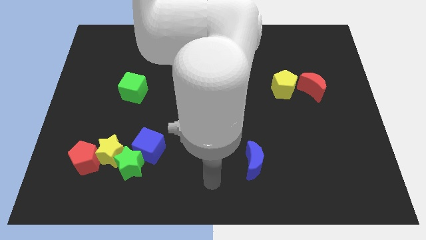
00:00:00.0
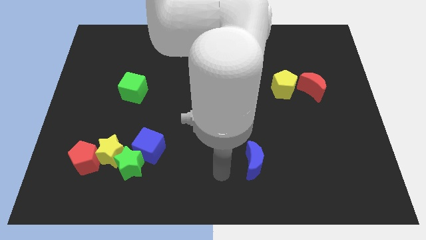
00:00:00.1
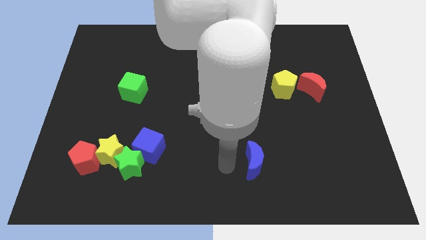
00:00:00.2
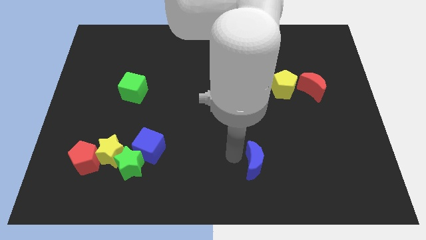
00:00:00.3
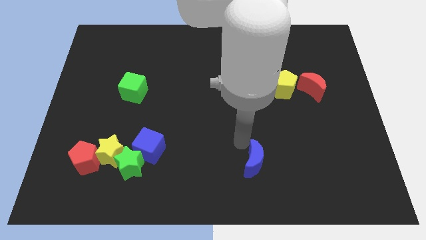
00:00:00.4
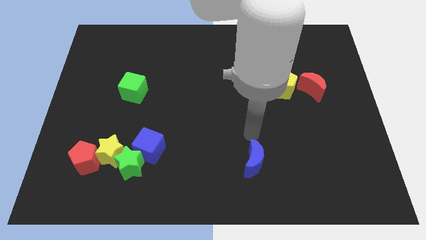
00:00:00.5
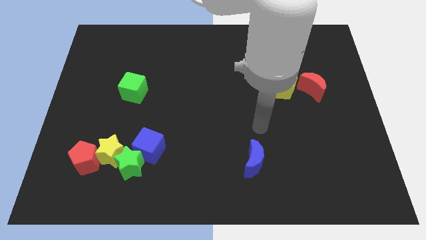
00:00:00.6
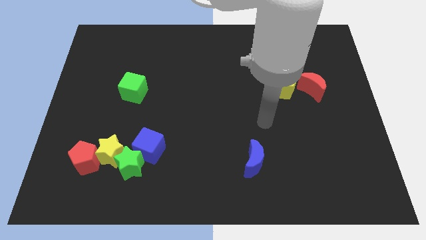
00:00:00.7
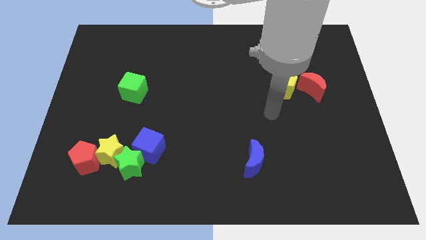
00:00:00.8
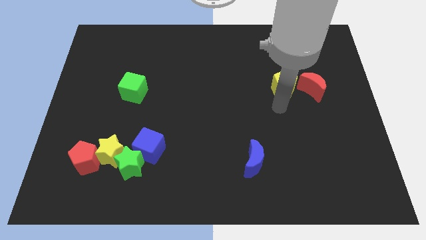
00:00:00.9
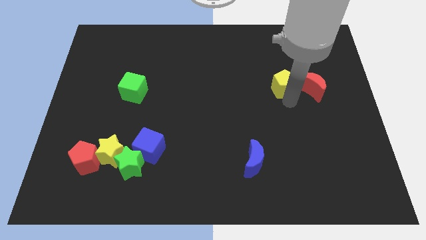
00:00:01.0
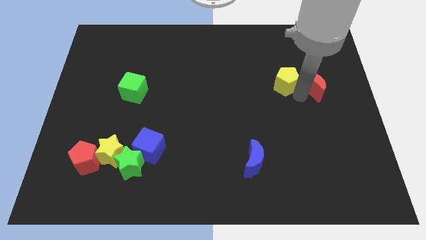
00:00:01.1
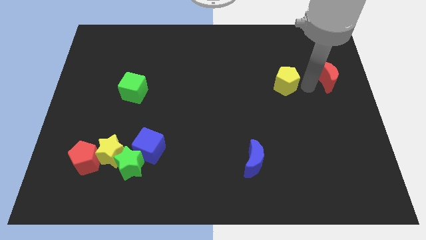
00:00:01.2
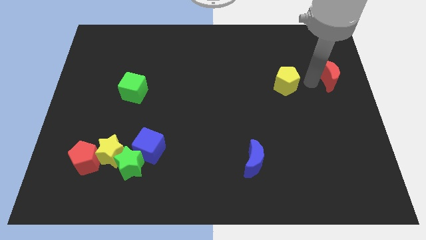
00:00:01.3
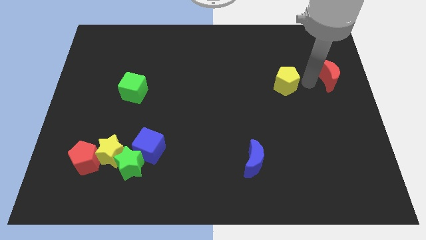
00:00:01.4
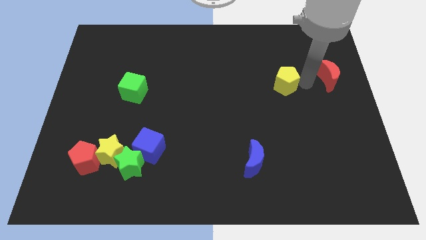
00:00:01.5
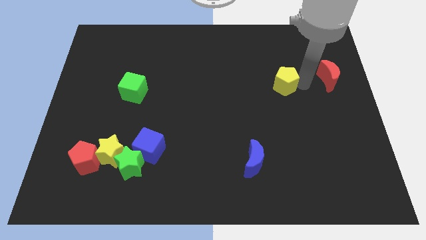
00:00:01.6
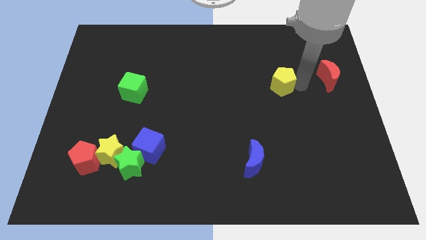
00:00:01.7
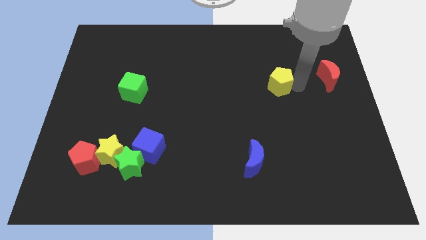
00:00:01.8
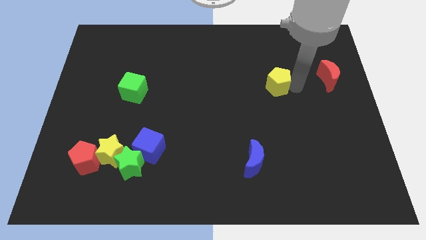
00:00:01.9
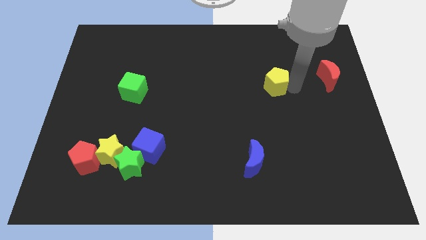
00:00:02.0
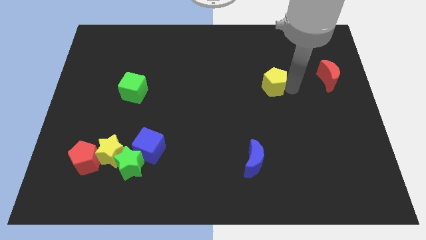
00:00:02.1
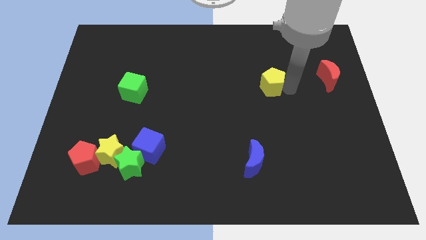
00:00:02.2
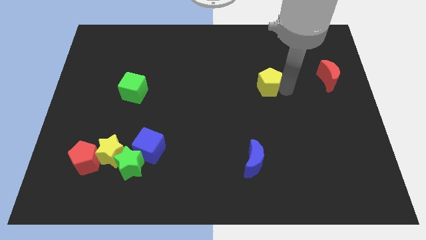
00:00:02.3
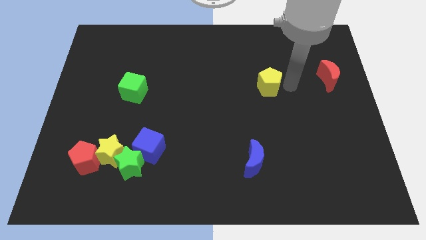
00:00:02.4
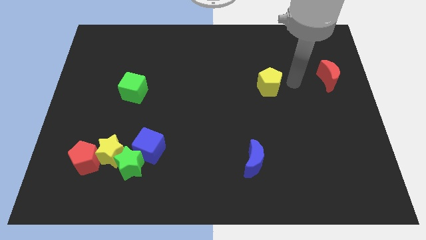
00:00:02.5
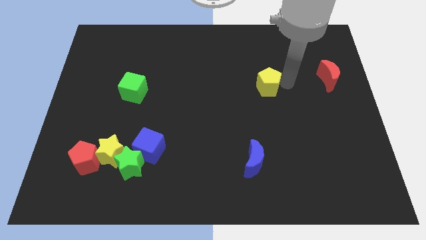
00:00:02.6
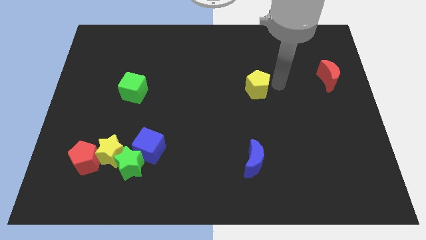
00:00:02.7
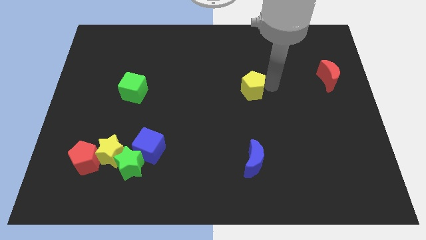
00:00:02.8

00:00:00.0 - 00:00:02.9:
slide the yellow pentagon somewhat to the left

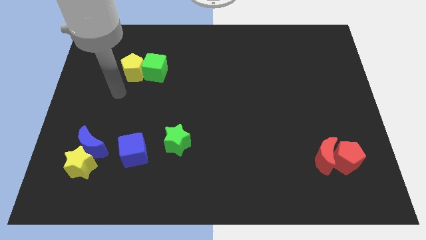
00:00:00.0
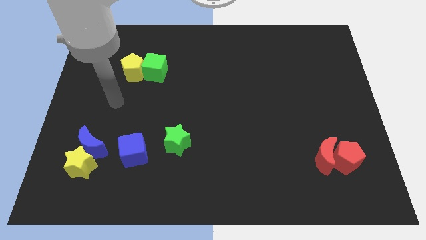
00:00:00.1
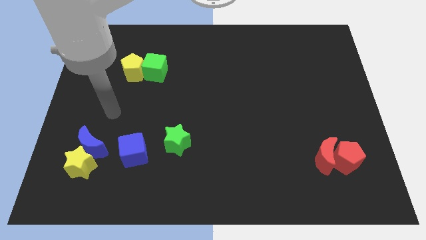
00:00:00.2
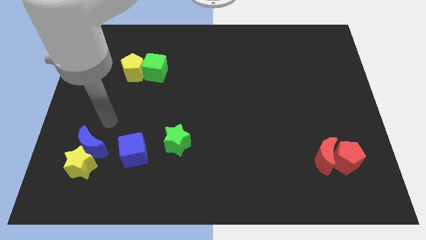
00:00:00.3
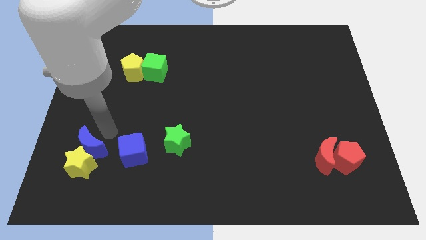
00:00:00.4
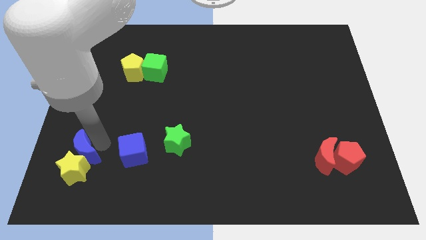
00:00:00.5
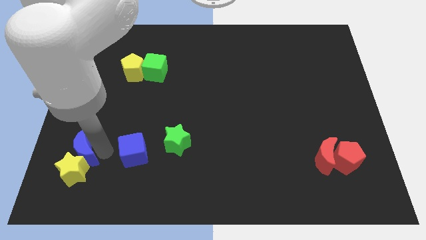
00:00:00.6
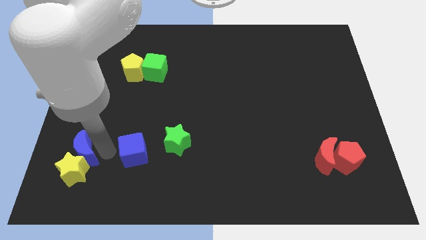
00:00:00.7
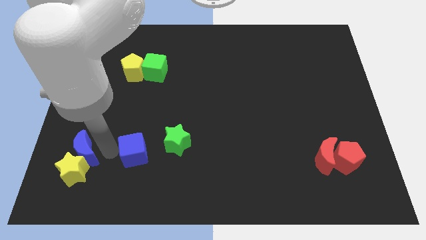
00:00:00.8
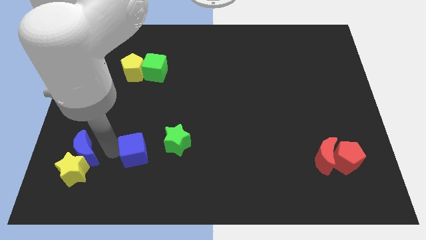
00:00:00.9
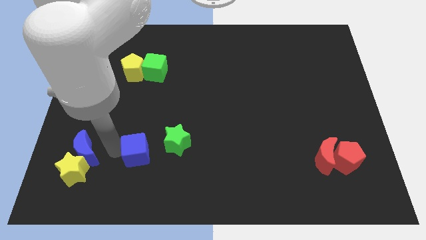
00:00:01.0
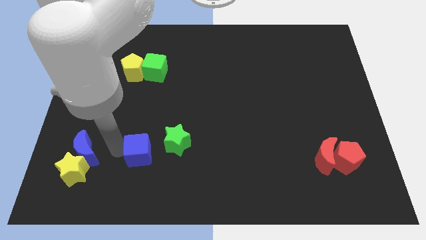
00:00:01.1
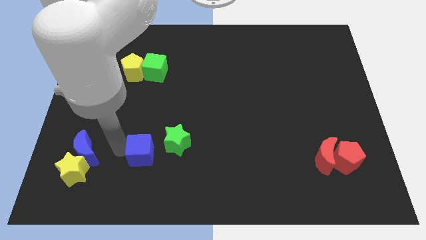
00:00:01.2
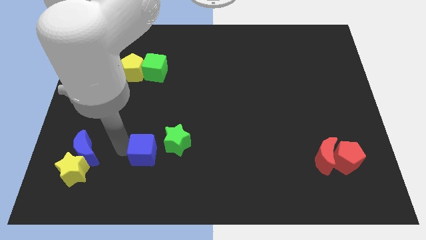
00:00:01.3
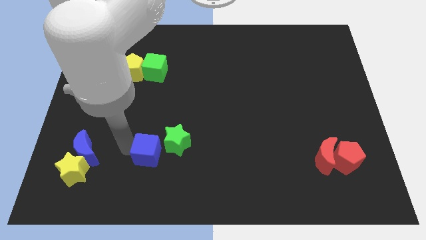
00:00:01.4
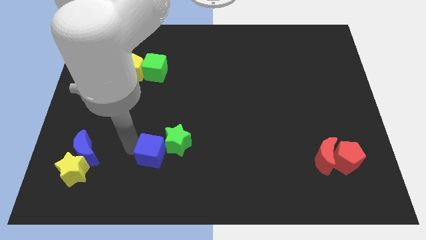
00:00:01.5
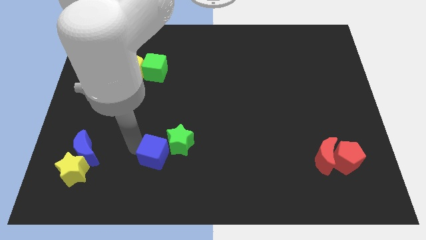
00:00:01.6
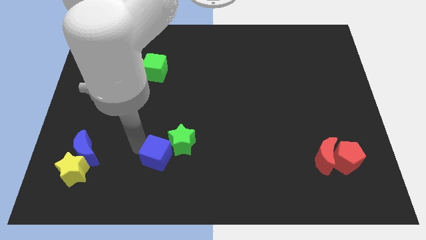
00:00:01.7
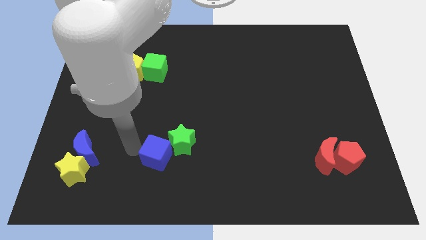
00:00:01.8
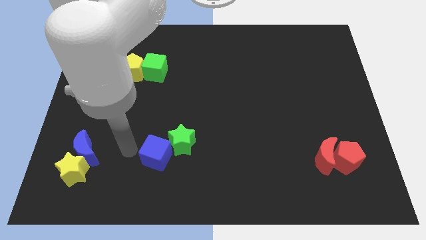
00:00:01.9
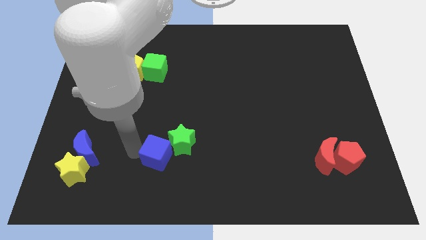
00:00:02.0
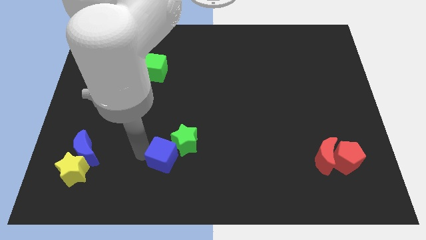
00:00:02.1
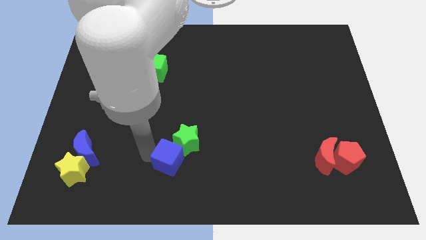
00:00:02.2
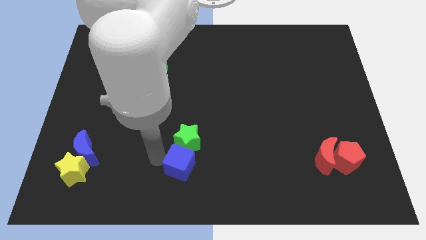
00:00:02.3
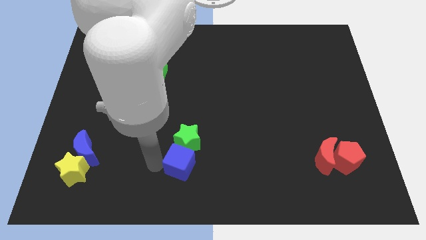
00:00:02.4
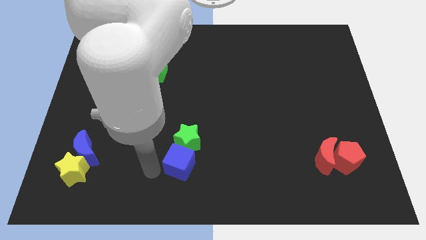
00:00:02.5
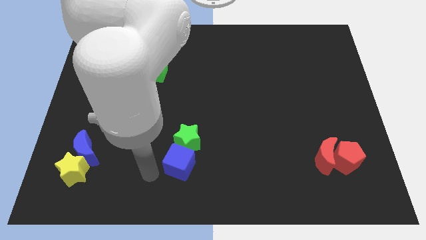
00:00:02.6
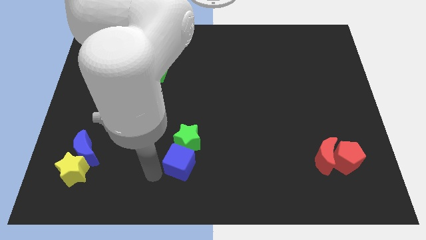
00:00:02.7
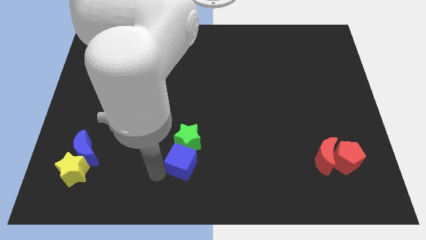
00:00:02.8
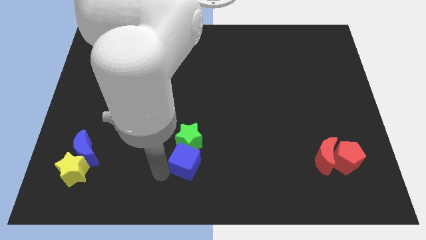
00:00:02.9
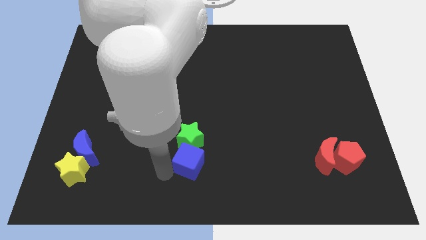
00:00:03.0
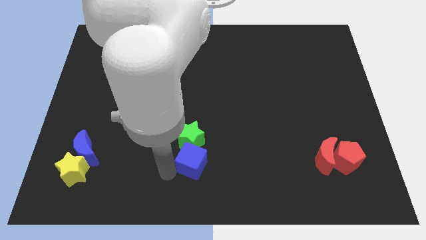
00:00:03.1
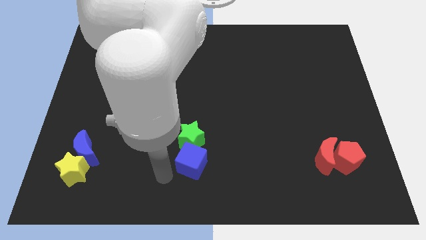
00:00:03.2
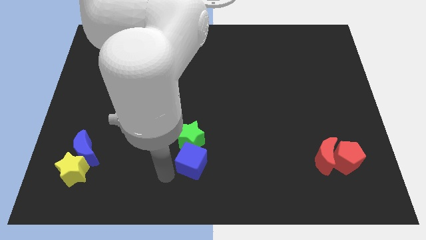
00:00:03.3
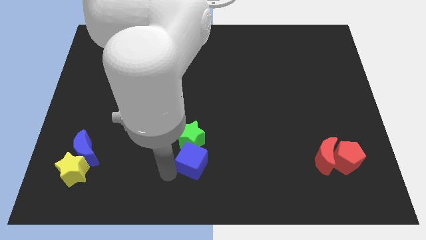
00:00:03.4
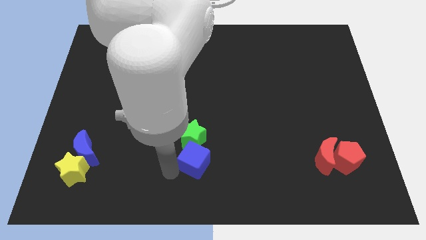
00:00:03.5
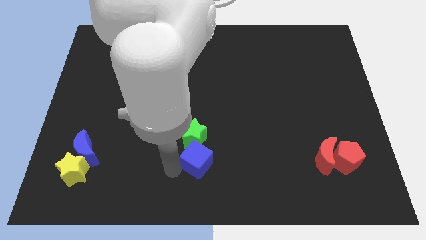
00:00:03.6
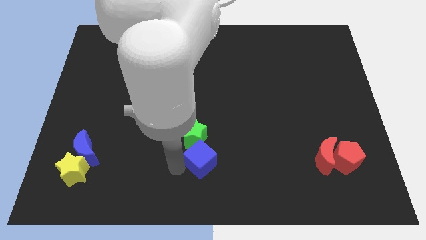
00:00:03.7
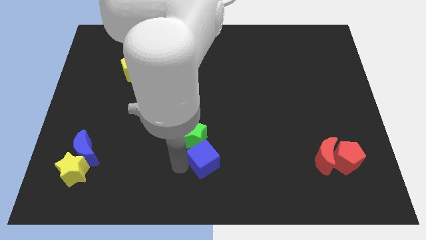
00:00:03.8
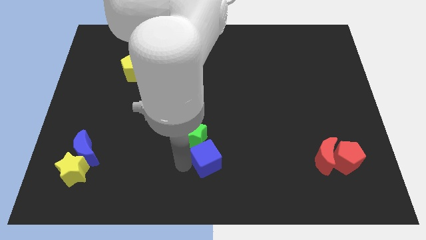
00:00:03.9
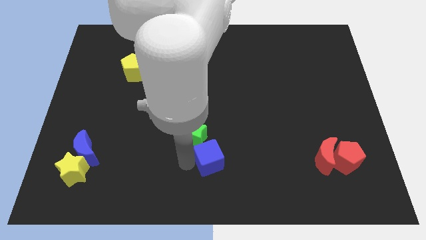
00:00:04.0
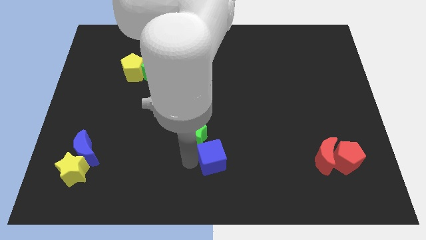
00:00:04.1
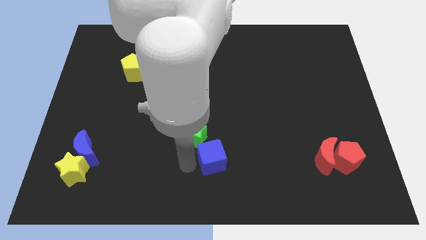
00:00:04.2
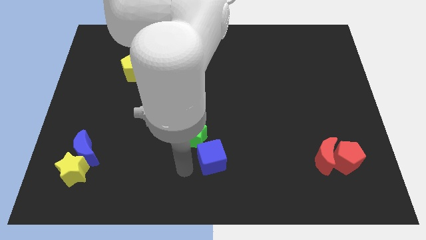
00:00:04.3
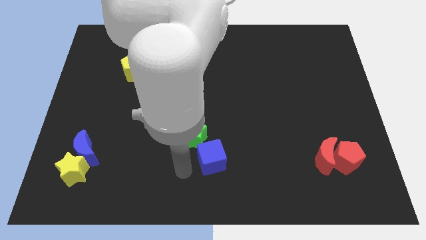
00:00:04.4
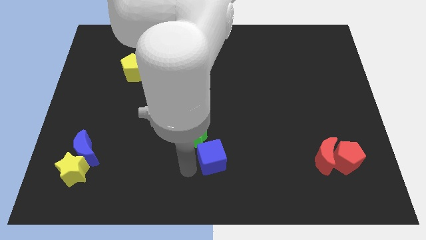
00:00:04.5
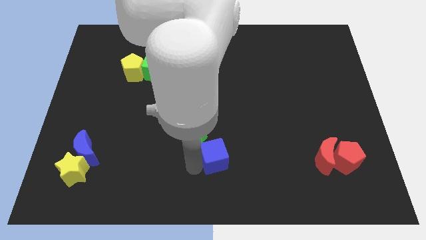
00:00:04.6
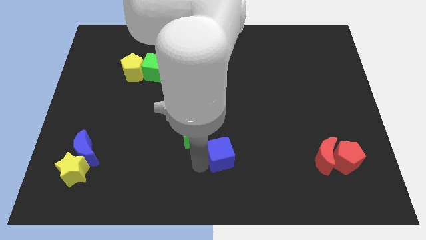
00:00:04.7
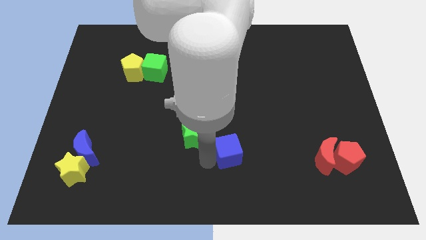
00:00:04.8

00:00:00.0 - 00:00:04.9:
move the blue cube right

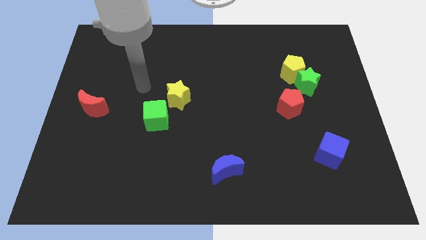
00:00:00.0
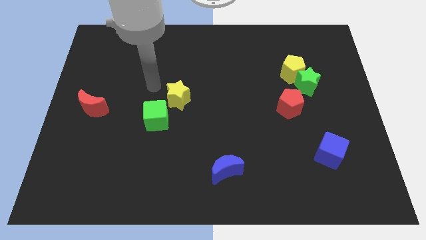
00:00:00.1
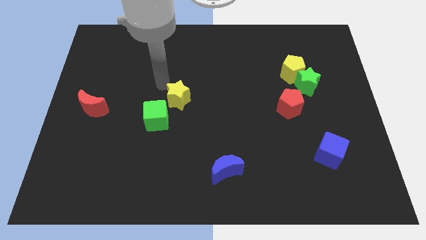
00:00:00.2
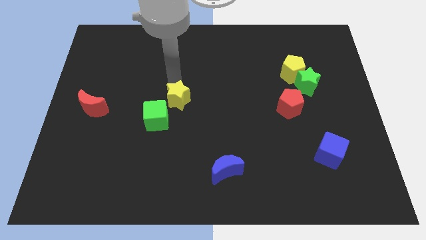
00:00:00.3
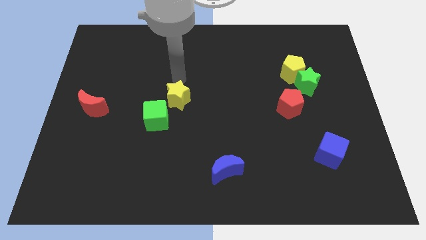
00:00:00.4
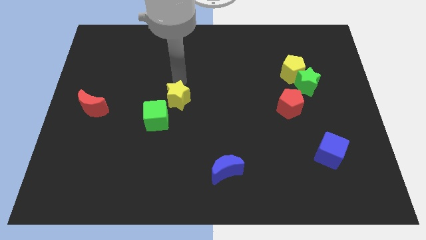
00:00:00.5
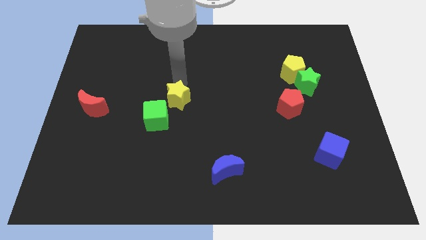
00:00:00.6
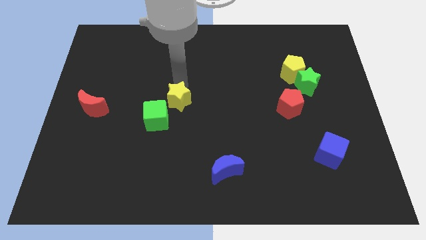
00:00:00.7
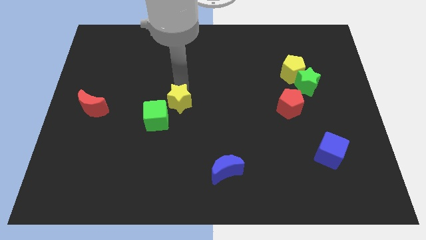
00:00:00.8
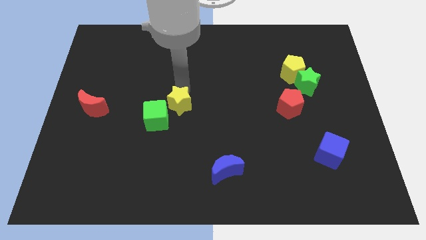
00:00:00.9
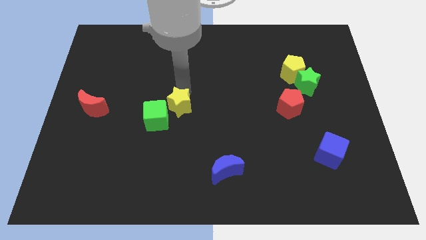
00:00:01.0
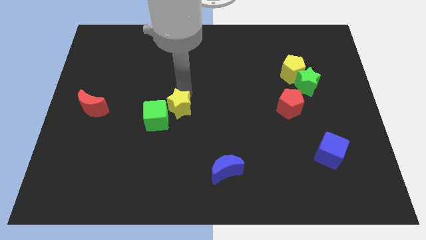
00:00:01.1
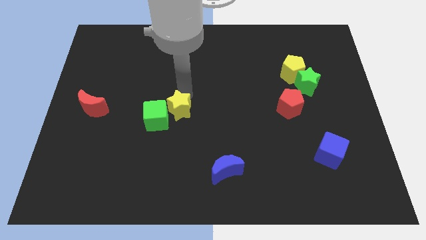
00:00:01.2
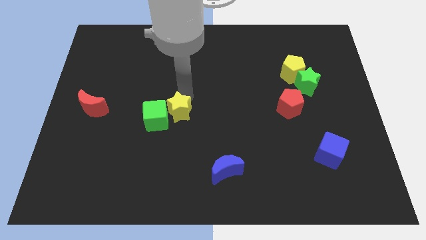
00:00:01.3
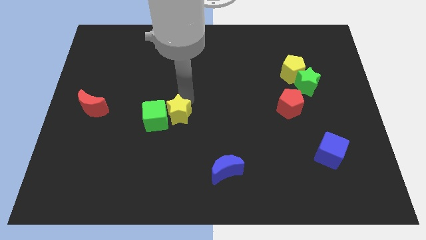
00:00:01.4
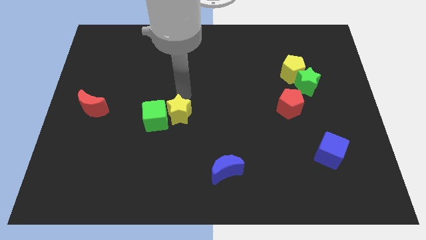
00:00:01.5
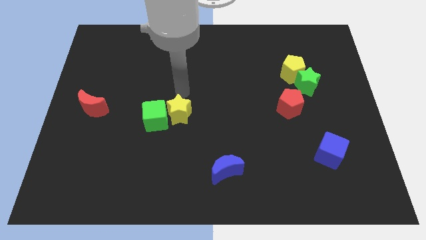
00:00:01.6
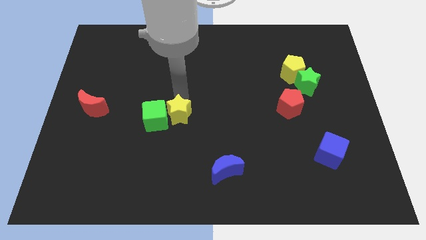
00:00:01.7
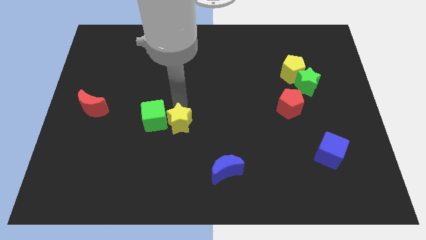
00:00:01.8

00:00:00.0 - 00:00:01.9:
slightly push the yellow star downwards
